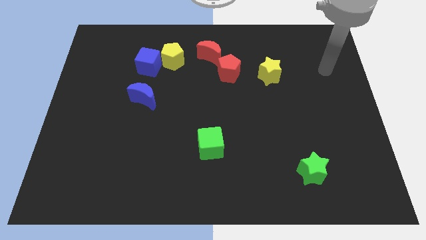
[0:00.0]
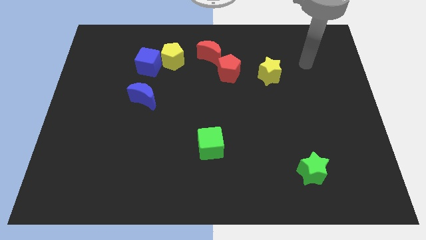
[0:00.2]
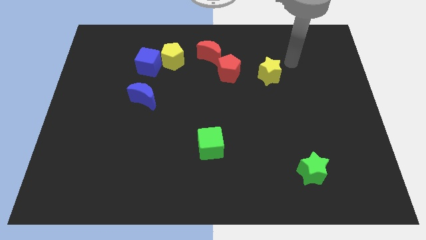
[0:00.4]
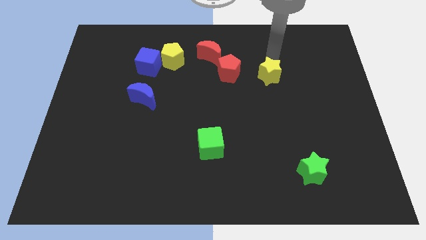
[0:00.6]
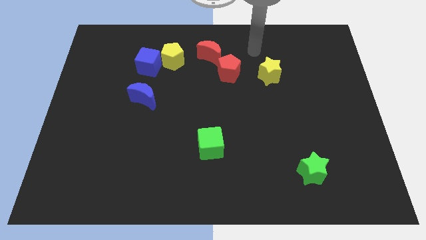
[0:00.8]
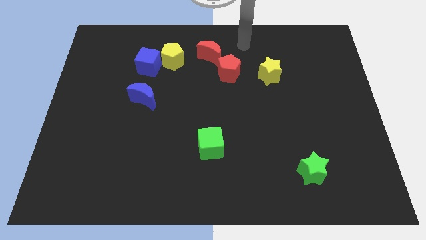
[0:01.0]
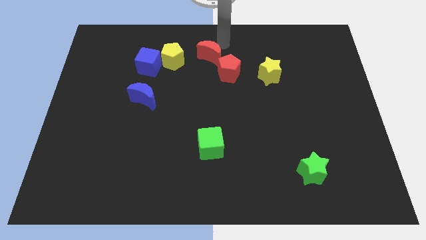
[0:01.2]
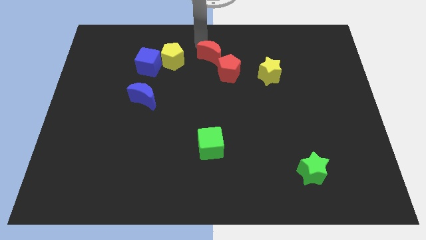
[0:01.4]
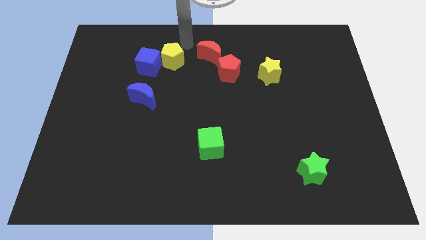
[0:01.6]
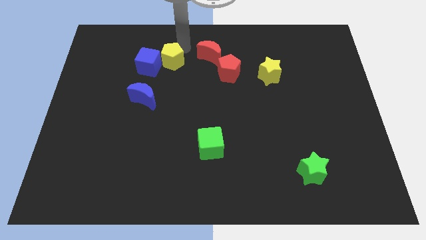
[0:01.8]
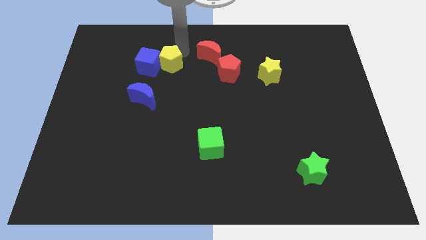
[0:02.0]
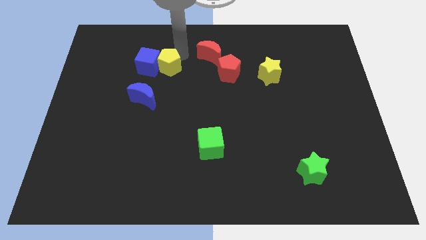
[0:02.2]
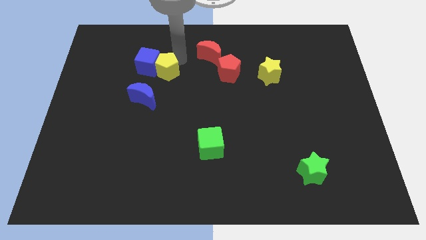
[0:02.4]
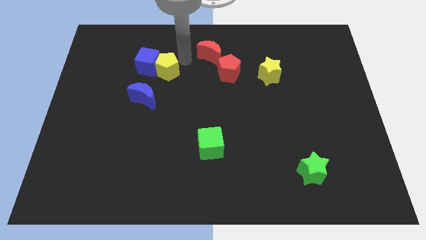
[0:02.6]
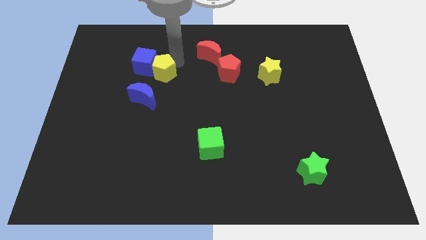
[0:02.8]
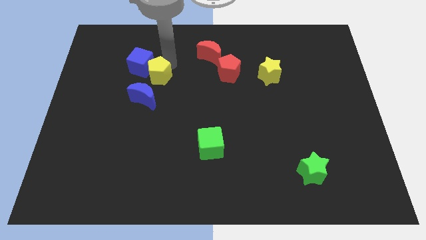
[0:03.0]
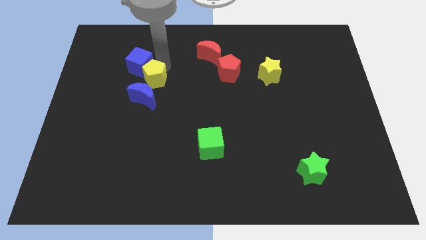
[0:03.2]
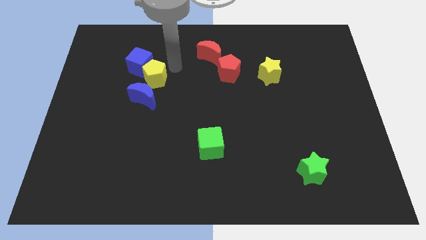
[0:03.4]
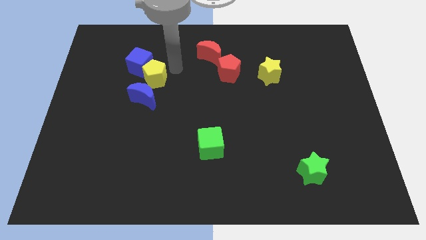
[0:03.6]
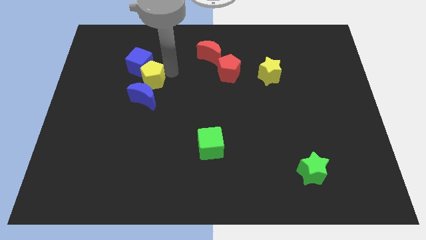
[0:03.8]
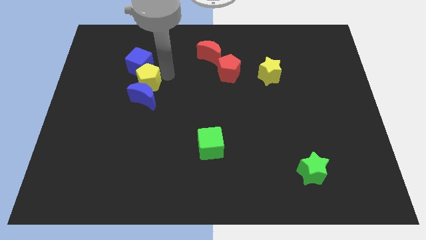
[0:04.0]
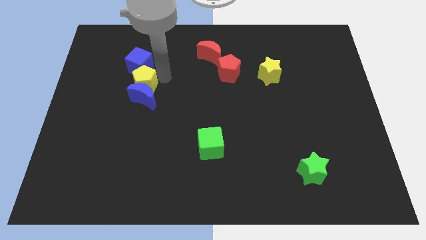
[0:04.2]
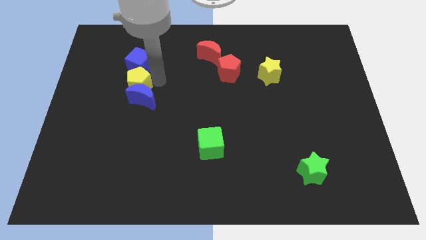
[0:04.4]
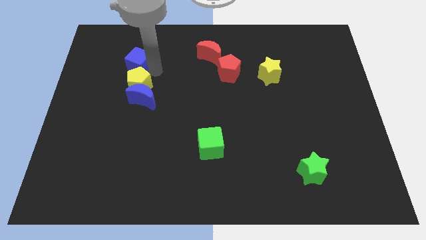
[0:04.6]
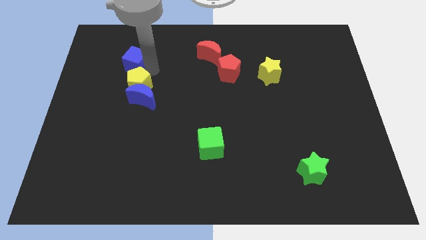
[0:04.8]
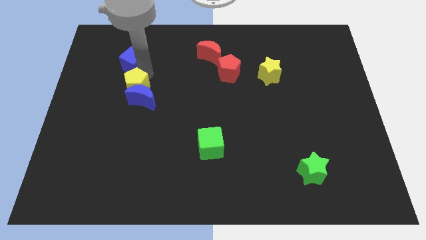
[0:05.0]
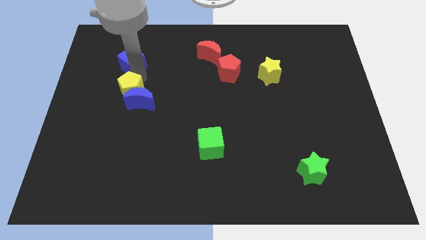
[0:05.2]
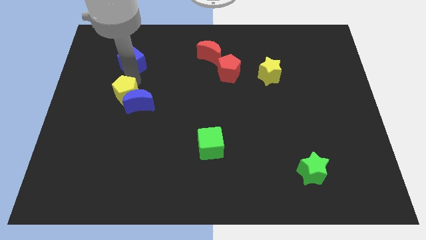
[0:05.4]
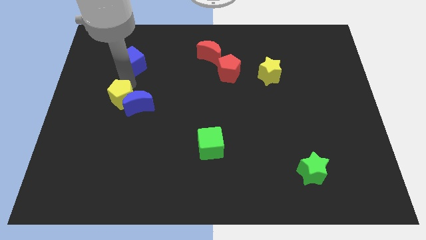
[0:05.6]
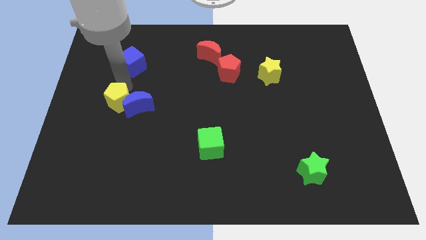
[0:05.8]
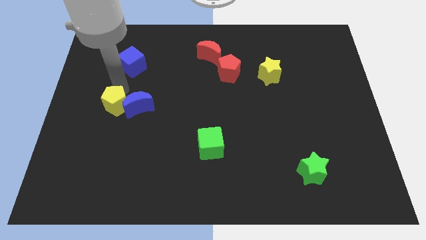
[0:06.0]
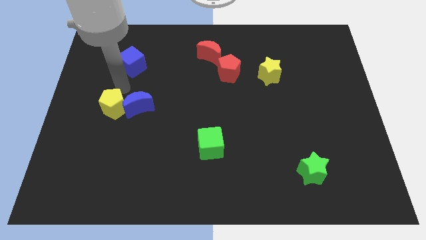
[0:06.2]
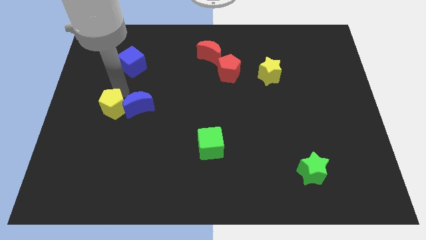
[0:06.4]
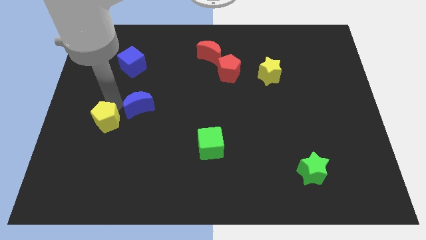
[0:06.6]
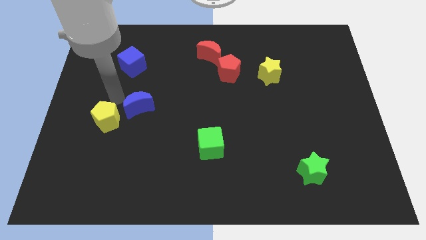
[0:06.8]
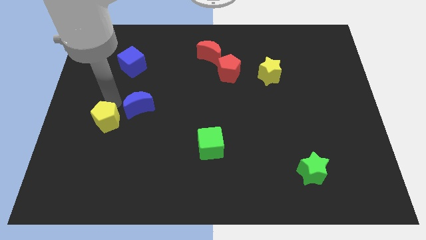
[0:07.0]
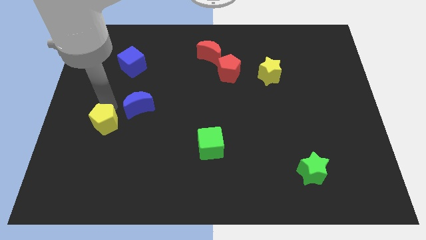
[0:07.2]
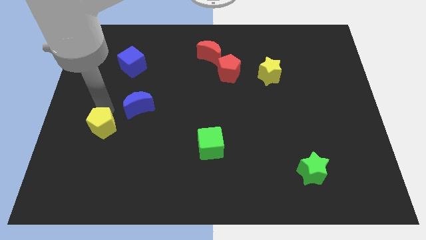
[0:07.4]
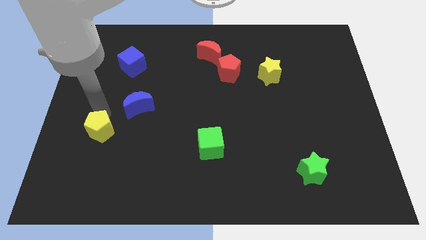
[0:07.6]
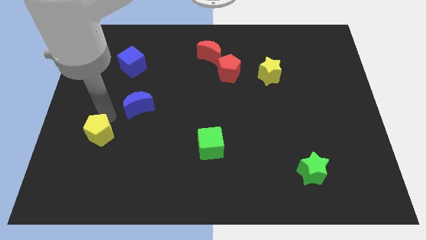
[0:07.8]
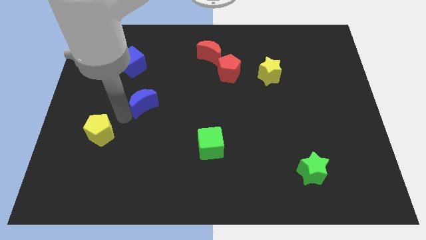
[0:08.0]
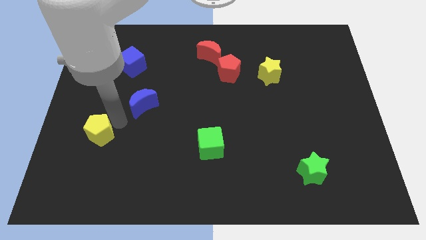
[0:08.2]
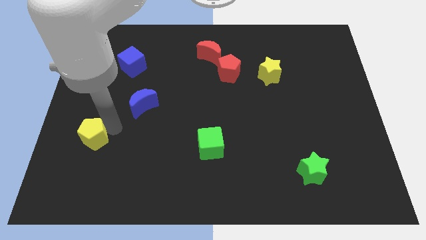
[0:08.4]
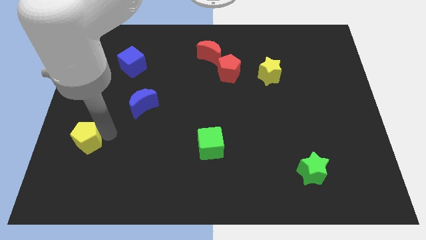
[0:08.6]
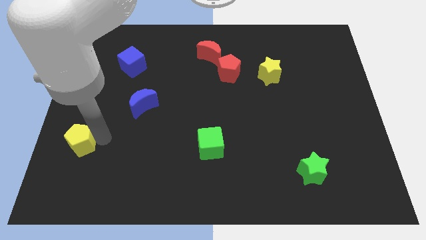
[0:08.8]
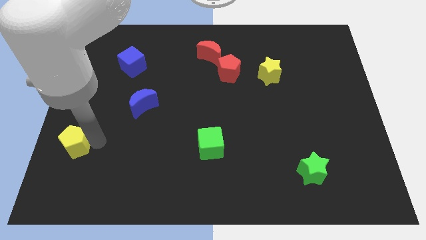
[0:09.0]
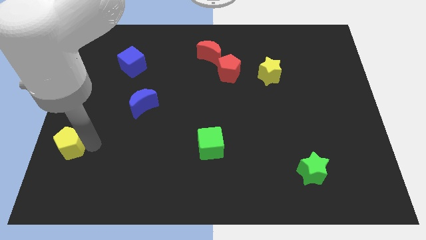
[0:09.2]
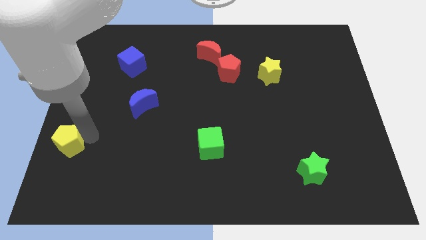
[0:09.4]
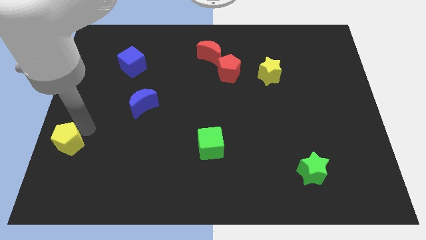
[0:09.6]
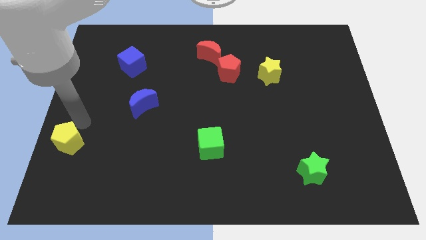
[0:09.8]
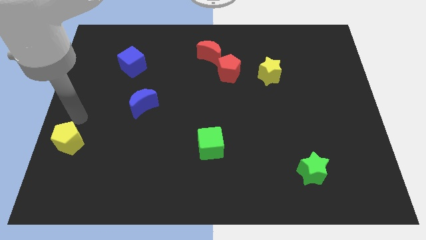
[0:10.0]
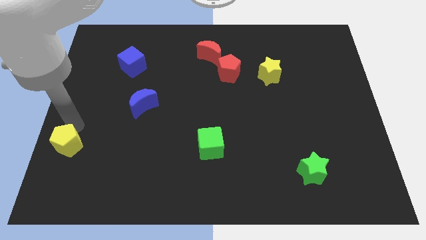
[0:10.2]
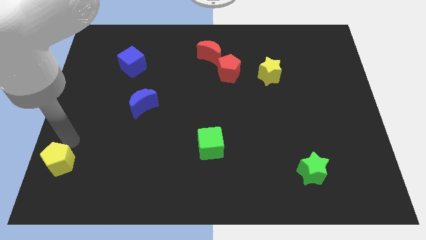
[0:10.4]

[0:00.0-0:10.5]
move the yellow pentagon to the bottom left of the board
